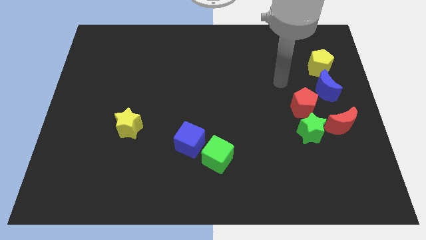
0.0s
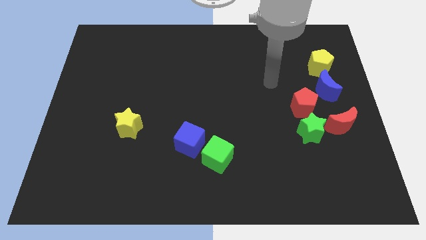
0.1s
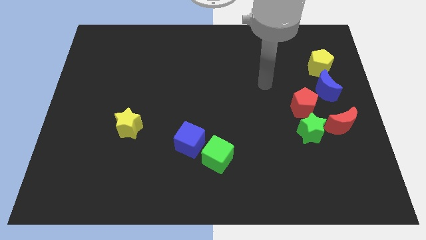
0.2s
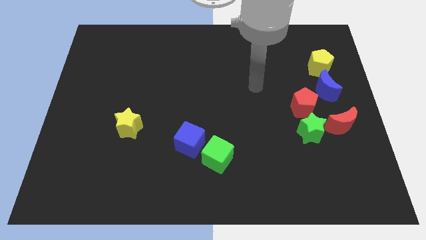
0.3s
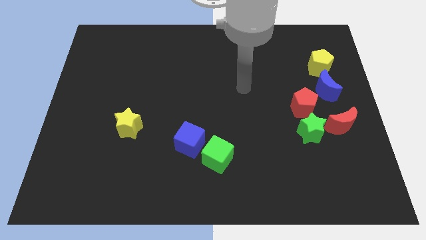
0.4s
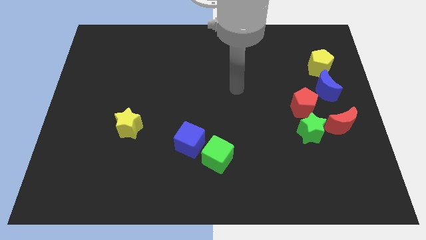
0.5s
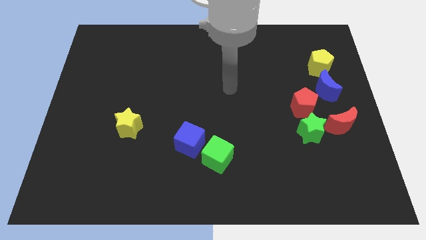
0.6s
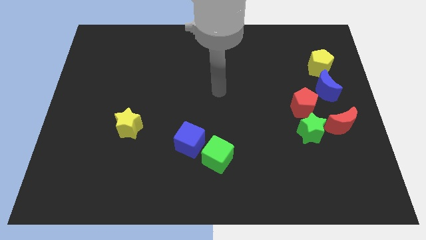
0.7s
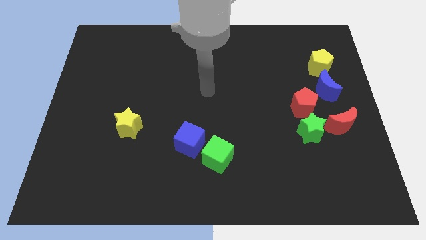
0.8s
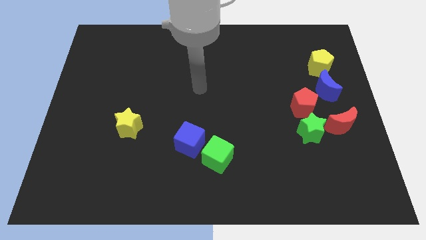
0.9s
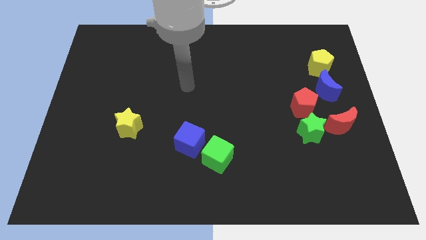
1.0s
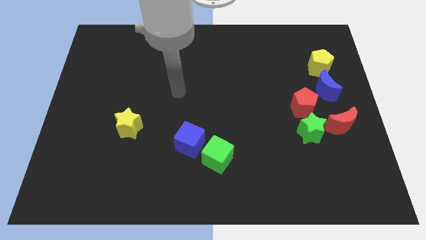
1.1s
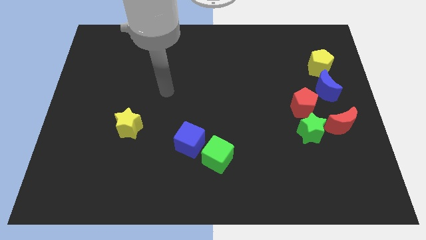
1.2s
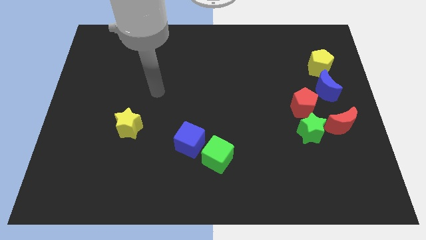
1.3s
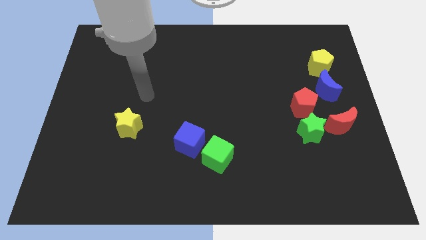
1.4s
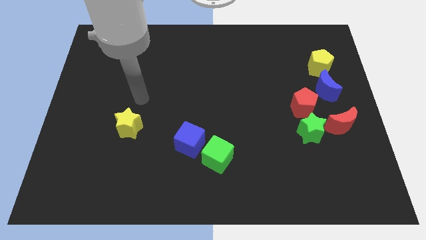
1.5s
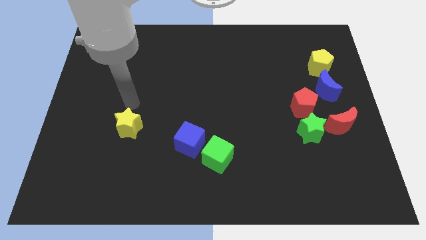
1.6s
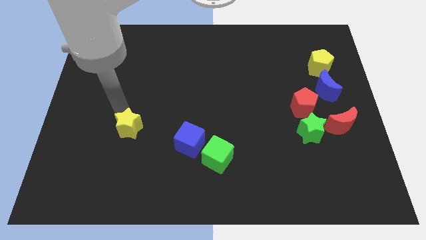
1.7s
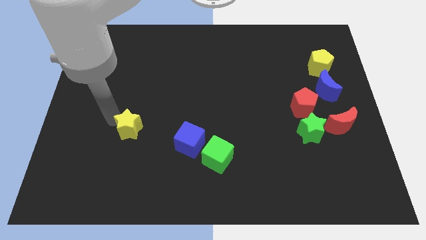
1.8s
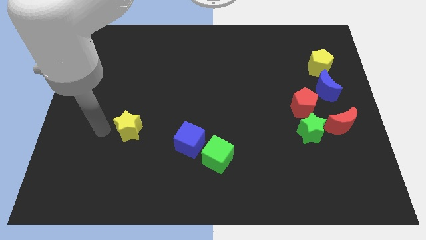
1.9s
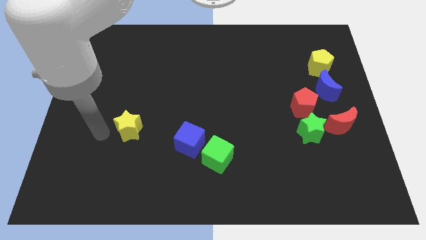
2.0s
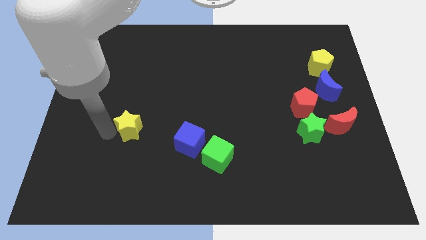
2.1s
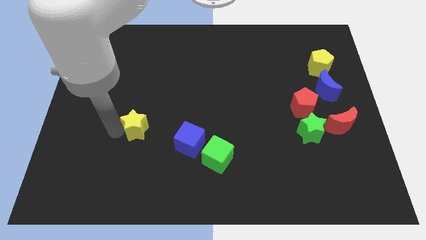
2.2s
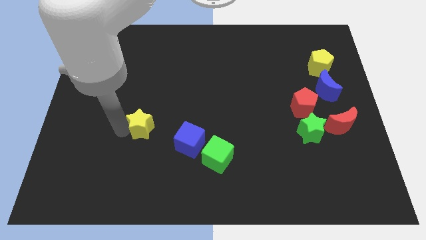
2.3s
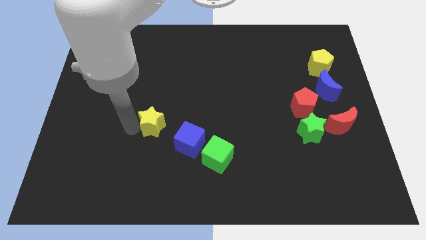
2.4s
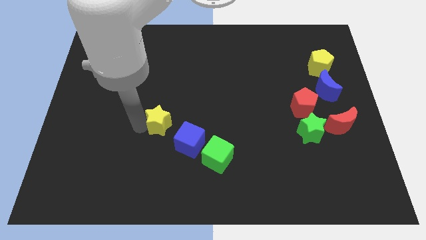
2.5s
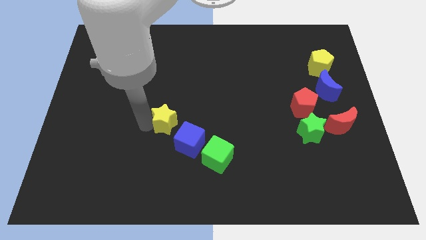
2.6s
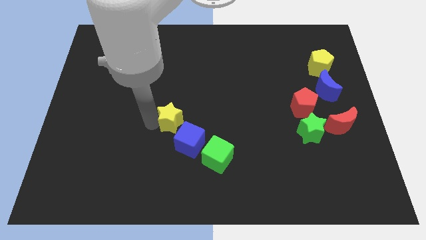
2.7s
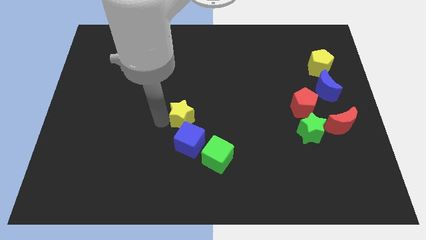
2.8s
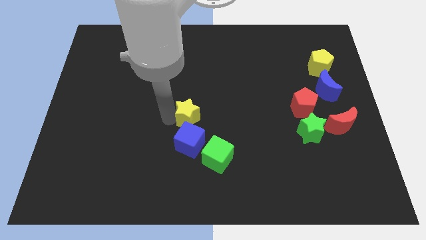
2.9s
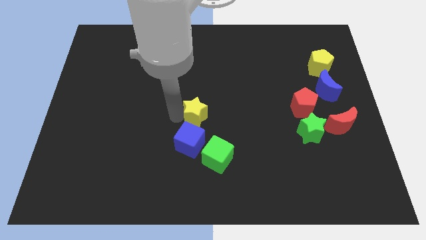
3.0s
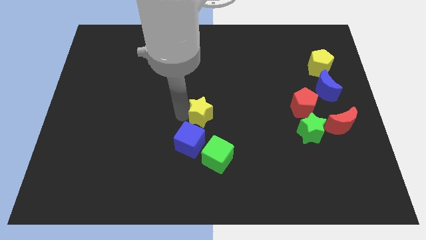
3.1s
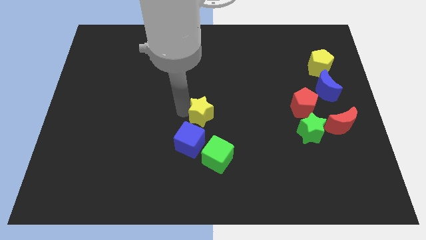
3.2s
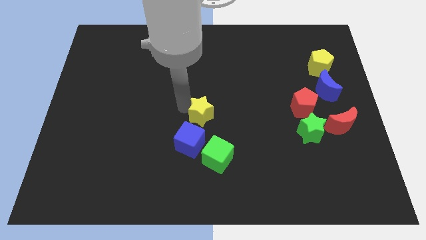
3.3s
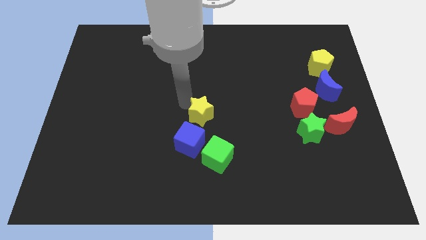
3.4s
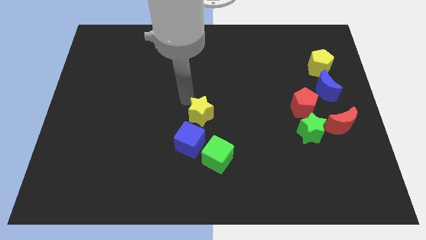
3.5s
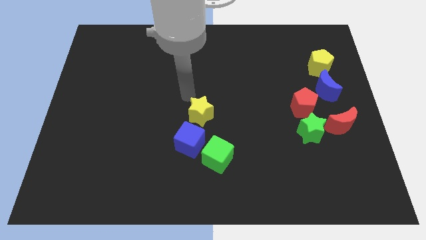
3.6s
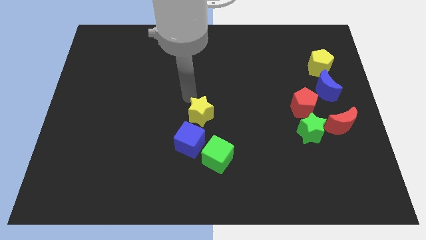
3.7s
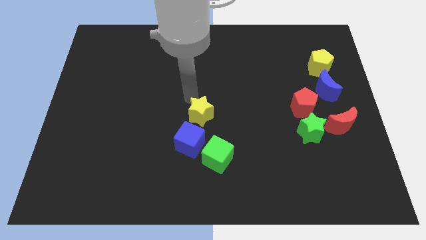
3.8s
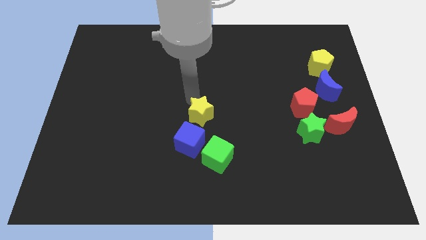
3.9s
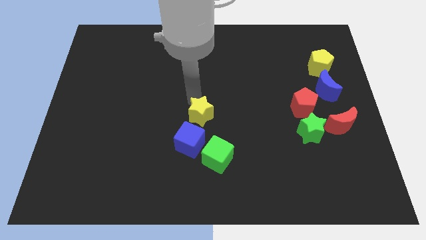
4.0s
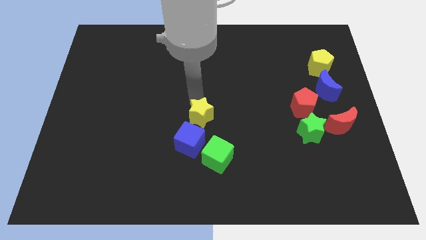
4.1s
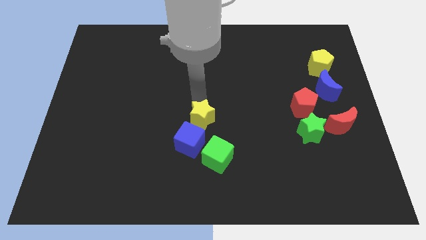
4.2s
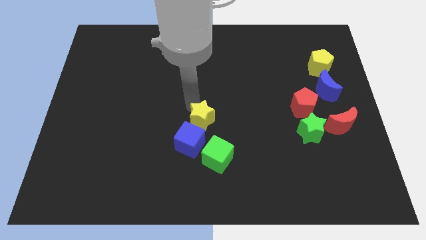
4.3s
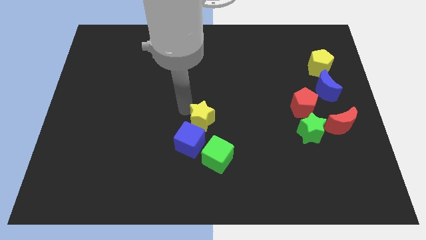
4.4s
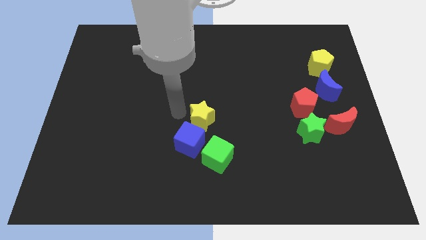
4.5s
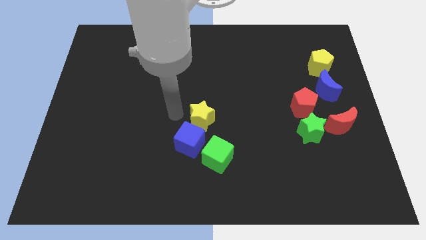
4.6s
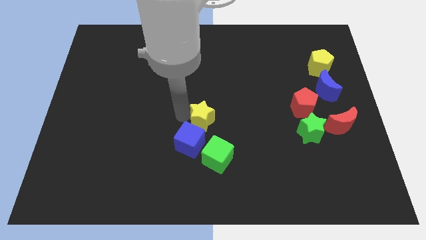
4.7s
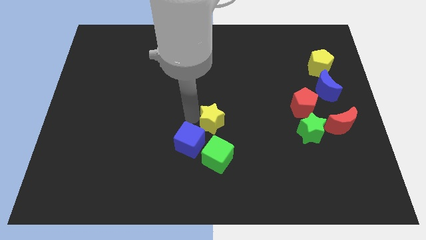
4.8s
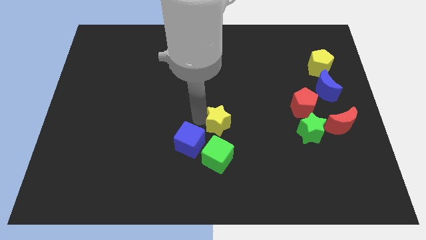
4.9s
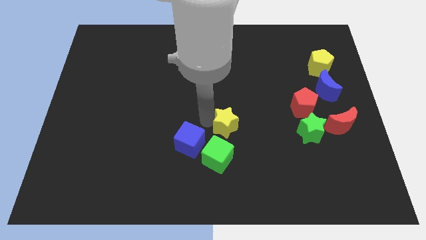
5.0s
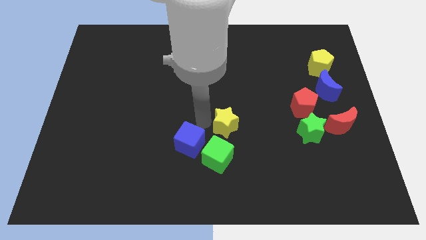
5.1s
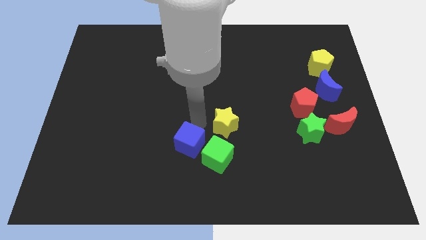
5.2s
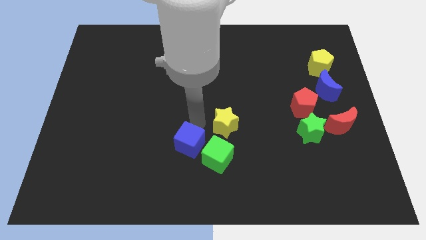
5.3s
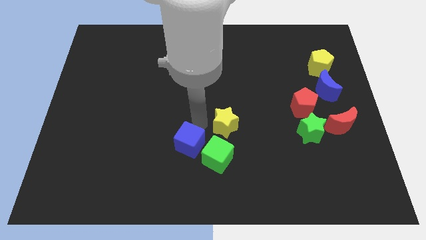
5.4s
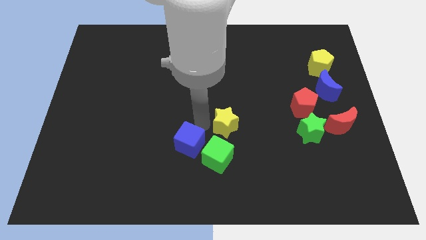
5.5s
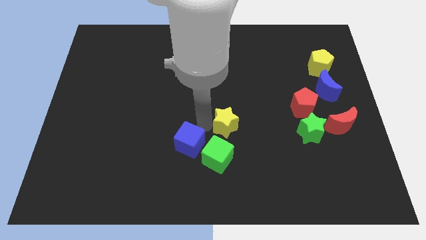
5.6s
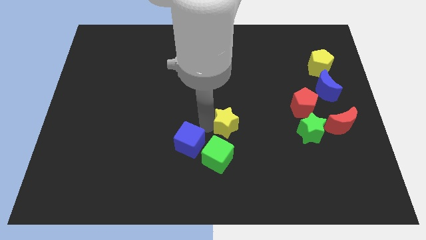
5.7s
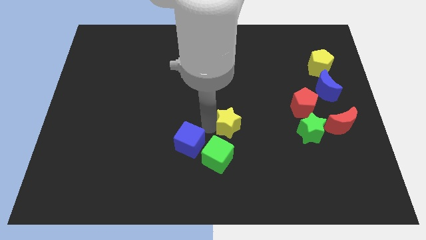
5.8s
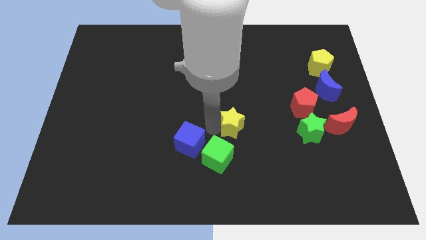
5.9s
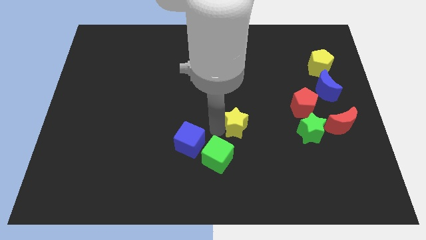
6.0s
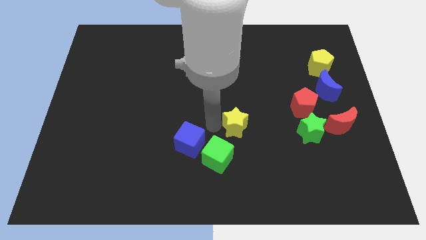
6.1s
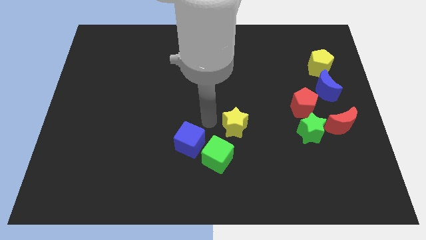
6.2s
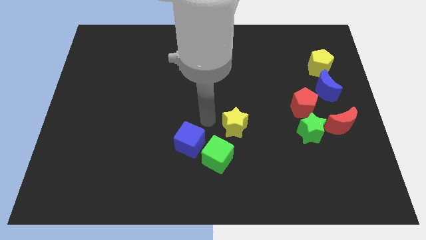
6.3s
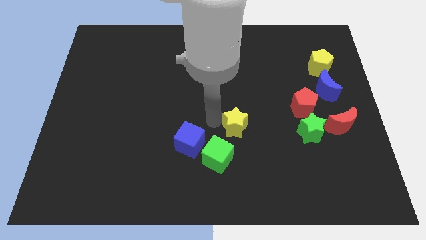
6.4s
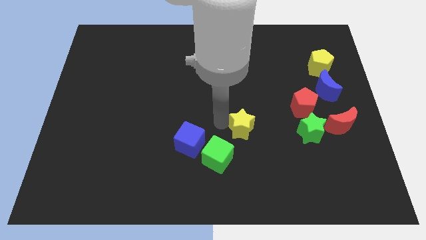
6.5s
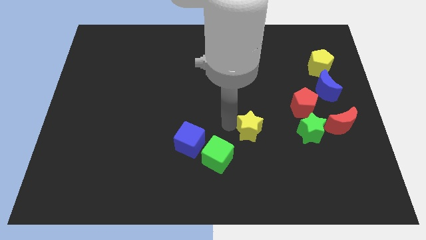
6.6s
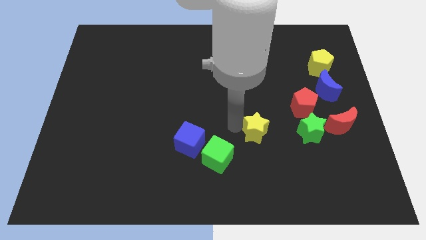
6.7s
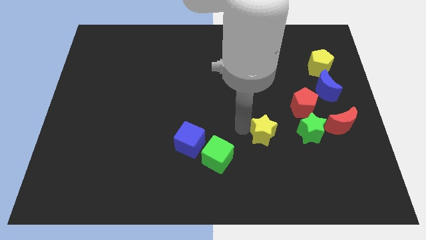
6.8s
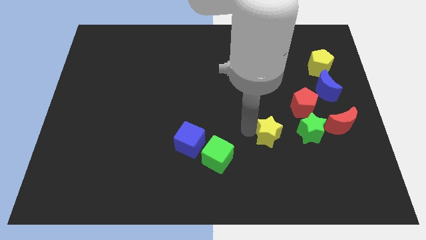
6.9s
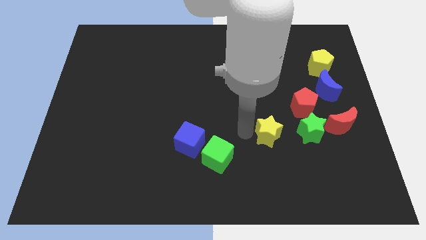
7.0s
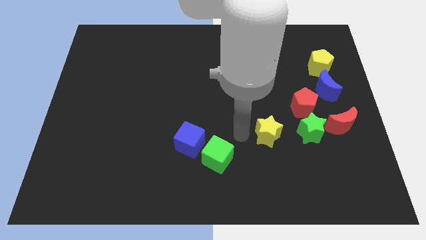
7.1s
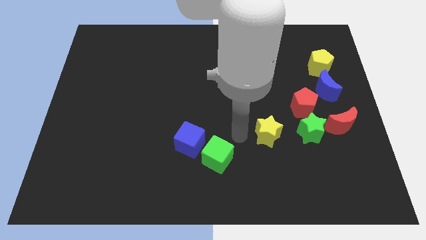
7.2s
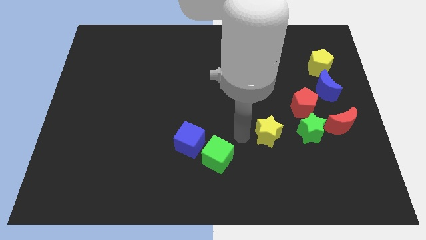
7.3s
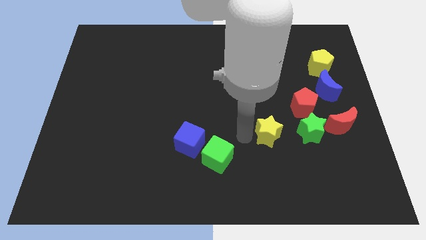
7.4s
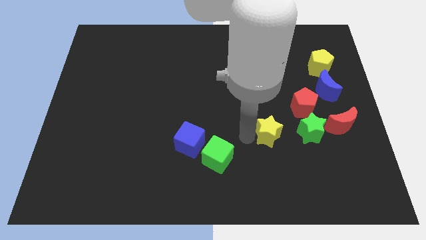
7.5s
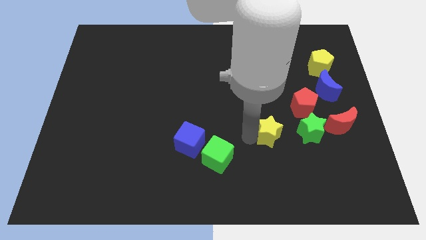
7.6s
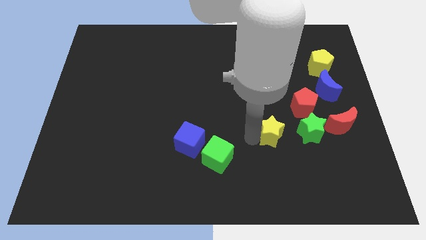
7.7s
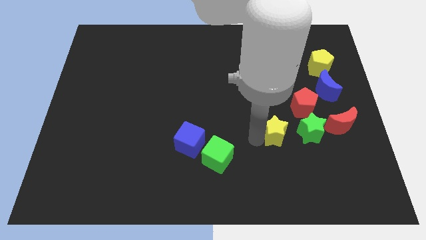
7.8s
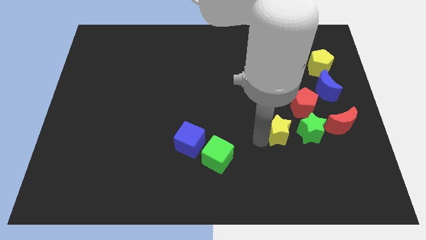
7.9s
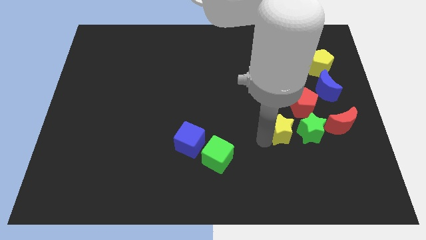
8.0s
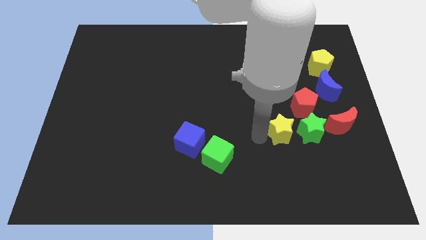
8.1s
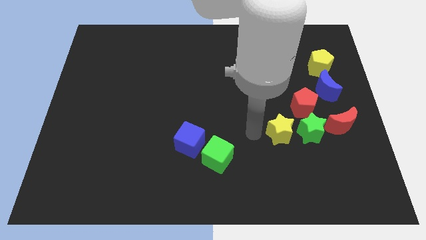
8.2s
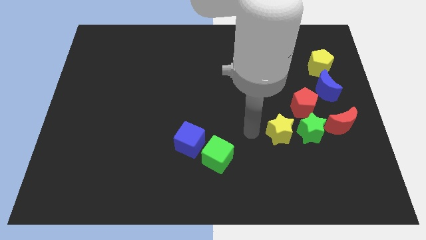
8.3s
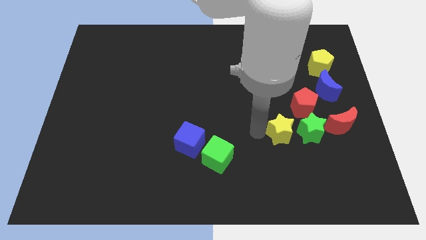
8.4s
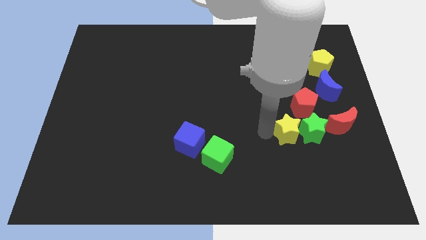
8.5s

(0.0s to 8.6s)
slide the yellow star next to the green star
